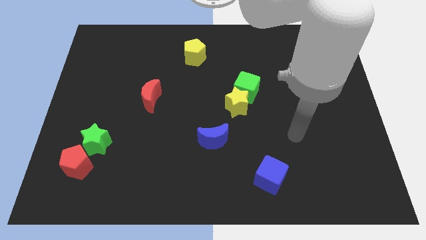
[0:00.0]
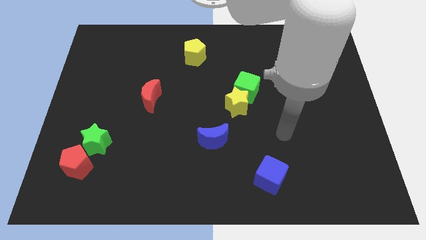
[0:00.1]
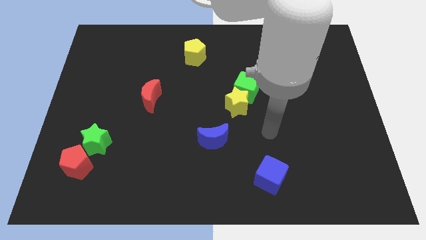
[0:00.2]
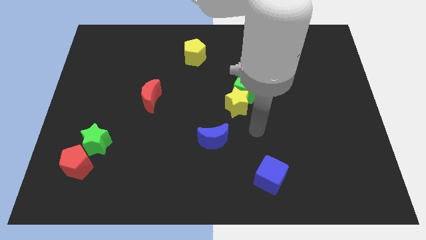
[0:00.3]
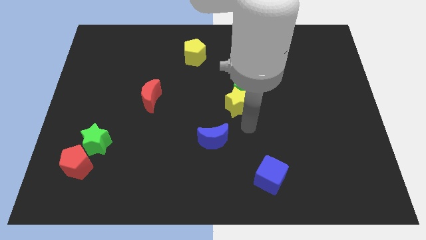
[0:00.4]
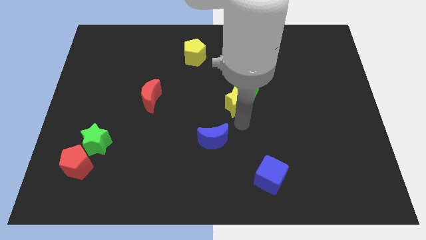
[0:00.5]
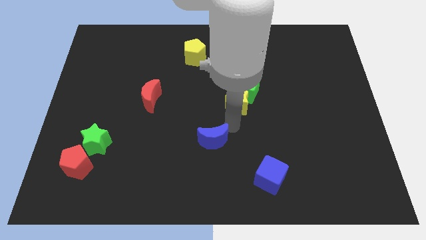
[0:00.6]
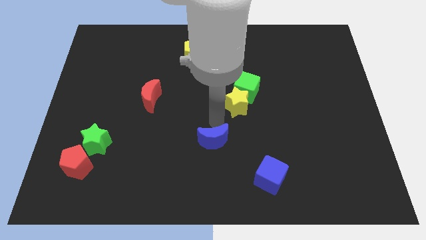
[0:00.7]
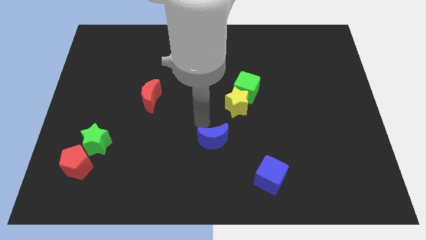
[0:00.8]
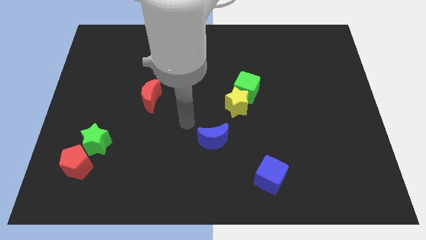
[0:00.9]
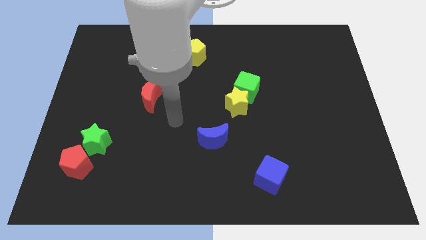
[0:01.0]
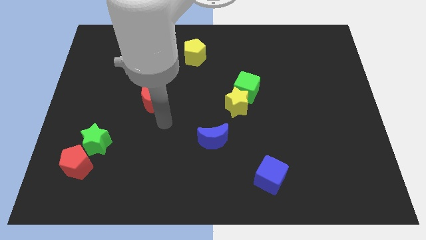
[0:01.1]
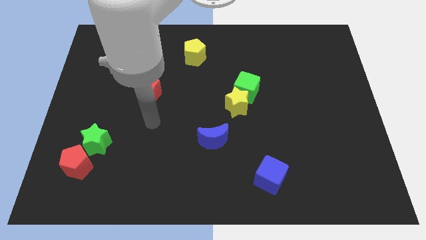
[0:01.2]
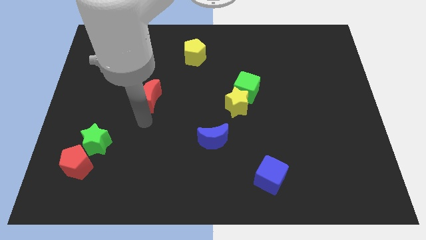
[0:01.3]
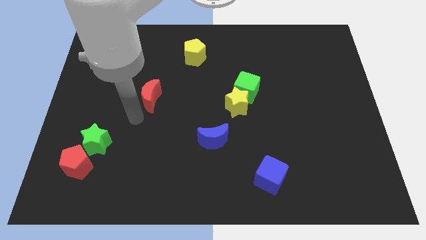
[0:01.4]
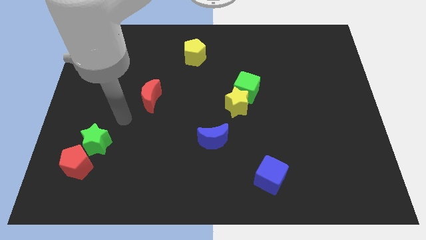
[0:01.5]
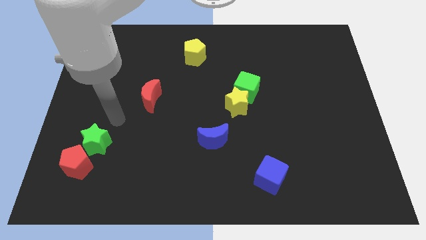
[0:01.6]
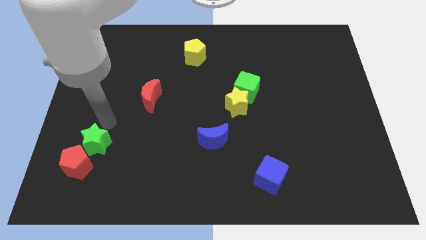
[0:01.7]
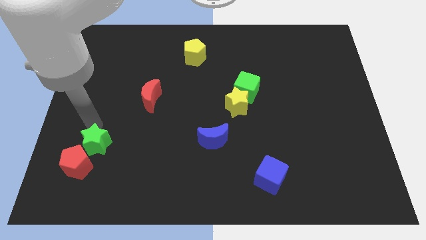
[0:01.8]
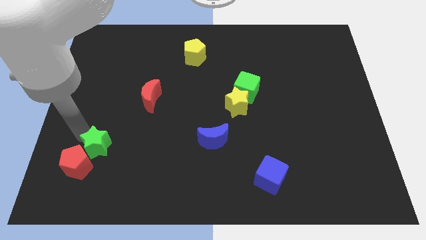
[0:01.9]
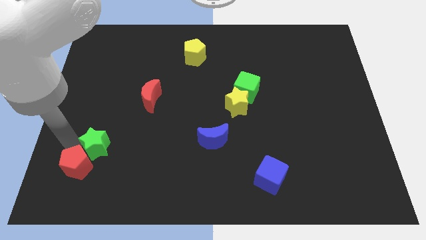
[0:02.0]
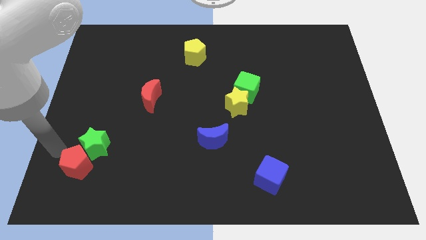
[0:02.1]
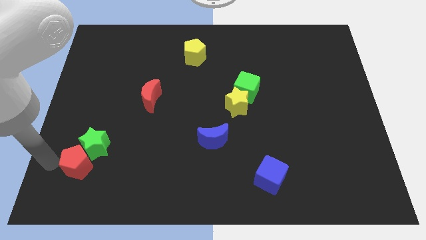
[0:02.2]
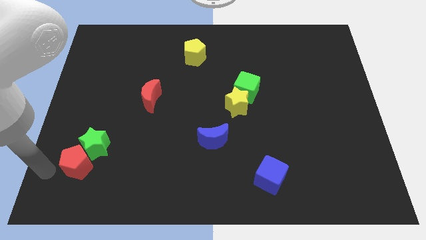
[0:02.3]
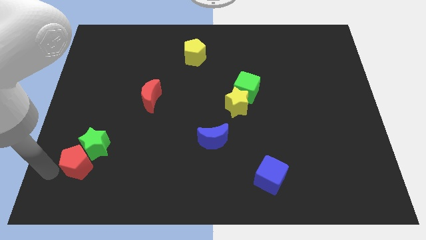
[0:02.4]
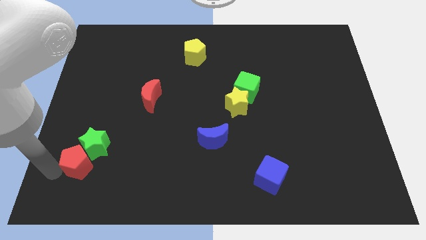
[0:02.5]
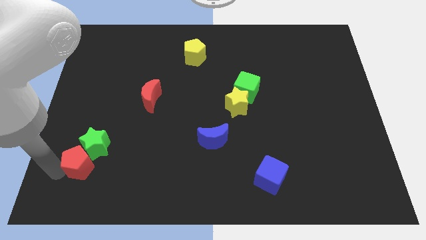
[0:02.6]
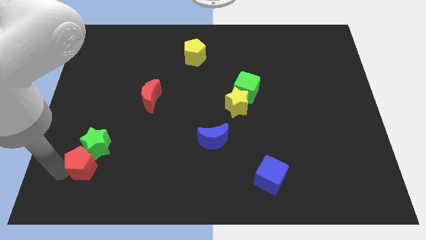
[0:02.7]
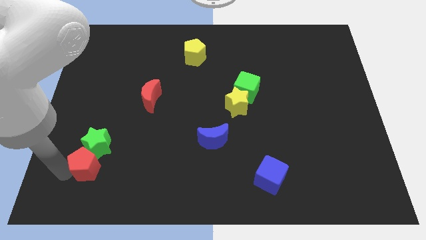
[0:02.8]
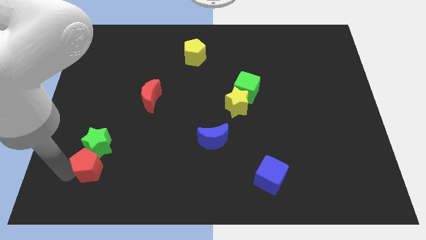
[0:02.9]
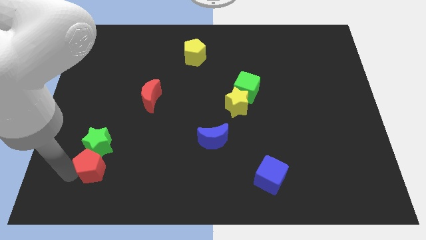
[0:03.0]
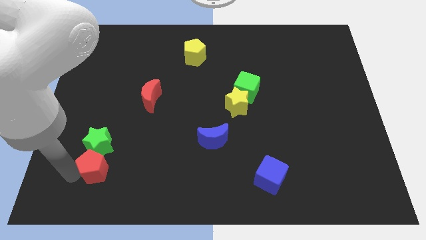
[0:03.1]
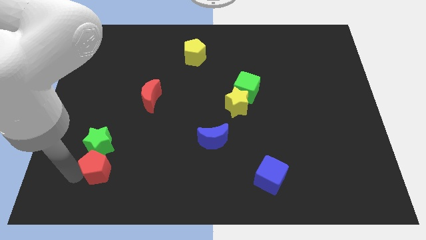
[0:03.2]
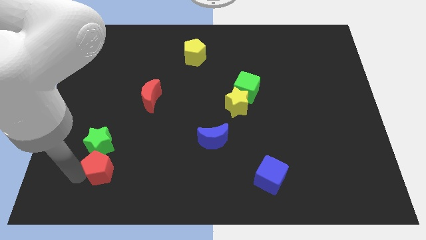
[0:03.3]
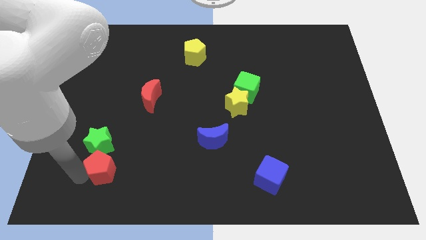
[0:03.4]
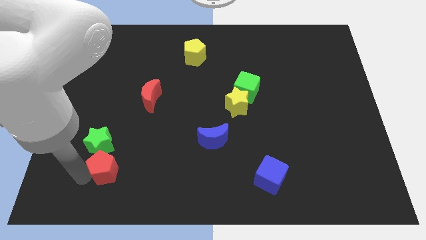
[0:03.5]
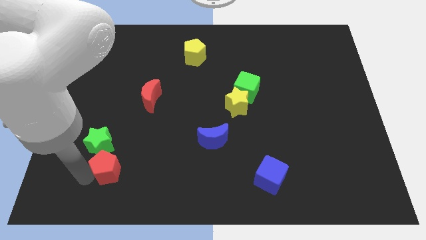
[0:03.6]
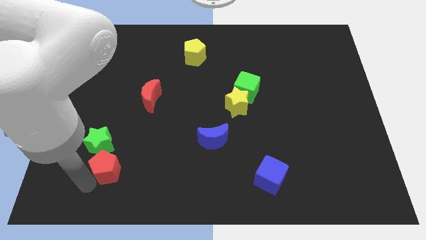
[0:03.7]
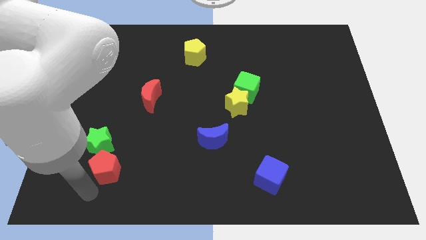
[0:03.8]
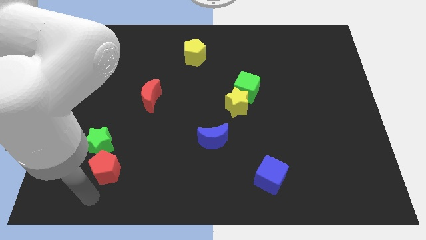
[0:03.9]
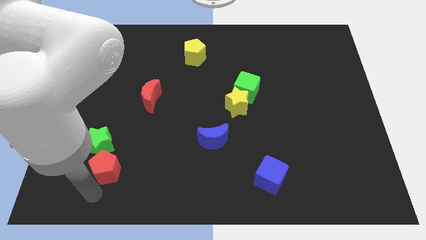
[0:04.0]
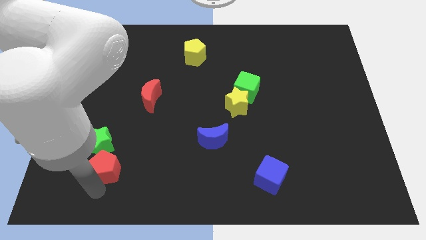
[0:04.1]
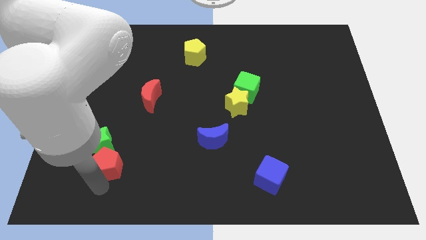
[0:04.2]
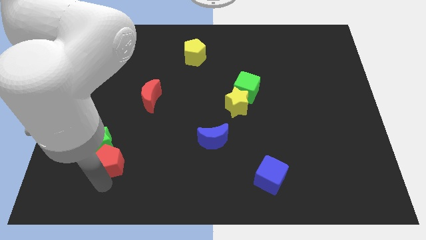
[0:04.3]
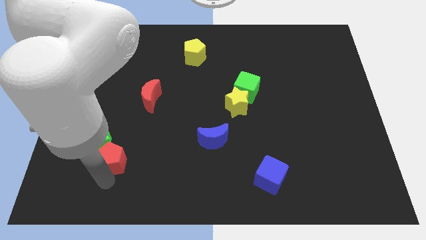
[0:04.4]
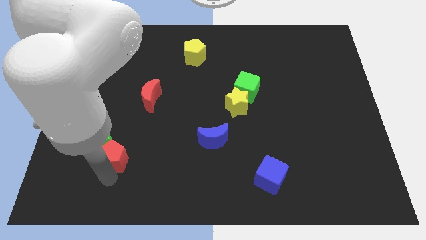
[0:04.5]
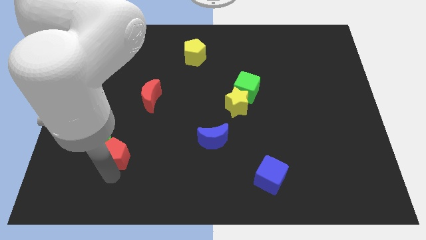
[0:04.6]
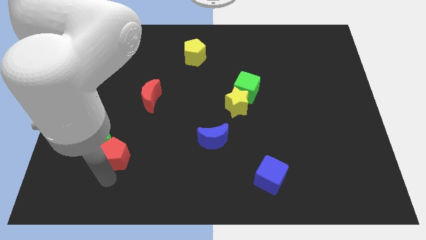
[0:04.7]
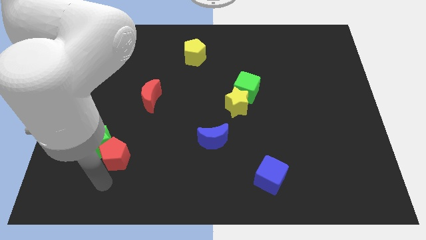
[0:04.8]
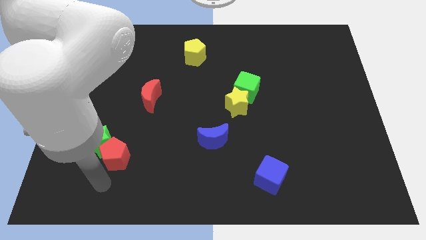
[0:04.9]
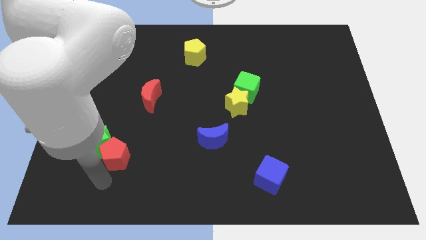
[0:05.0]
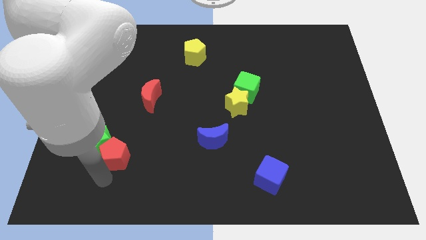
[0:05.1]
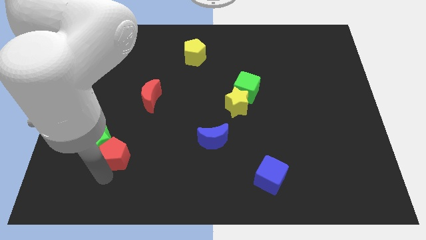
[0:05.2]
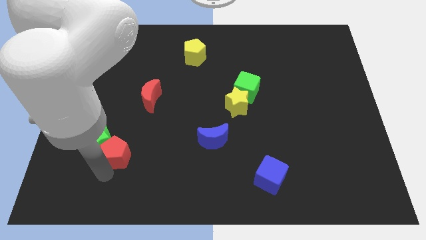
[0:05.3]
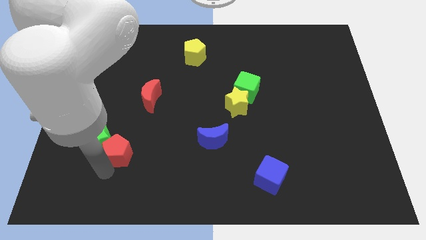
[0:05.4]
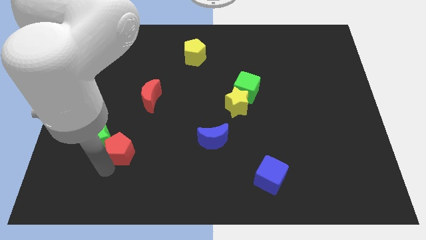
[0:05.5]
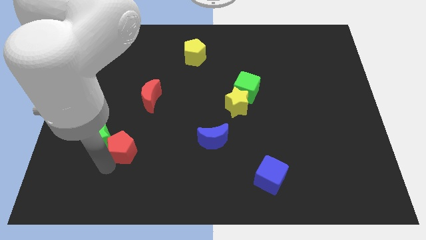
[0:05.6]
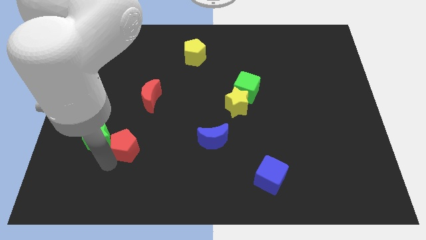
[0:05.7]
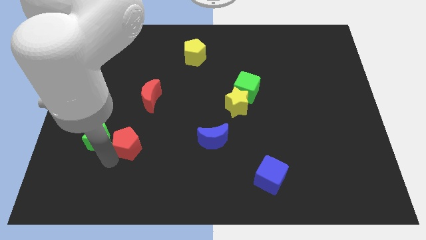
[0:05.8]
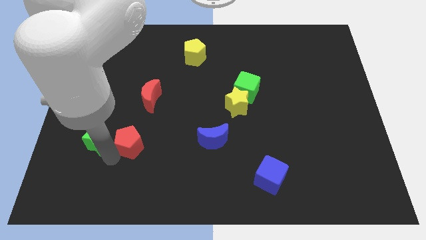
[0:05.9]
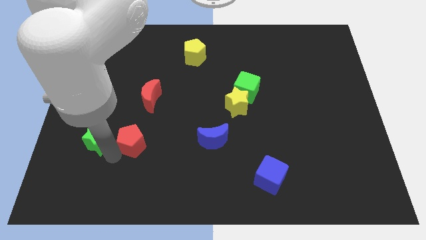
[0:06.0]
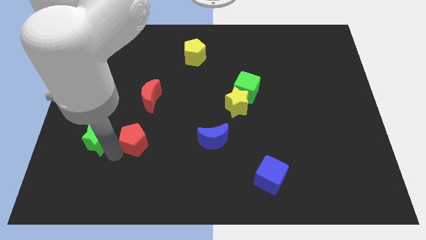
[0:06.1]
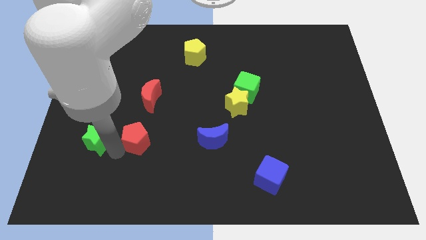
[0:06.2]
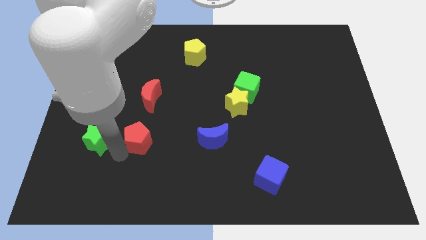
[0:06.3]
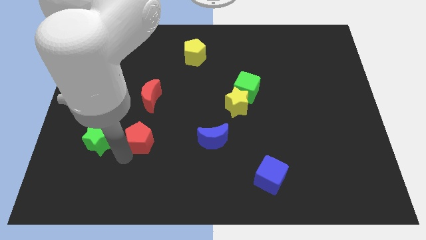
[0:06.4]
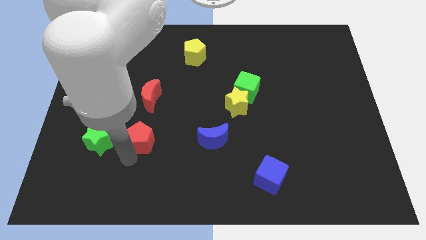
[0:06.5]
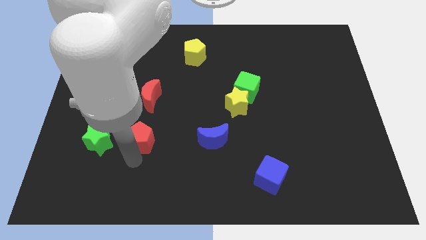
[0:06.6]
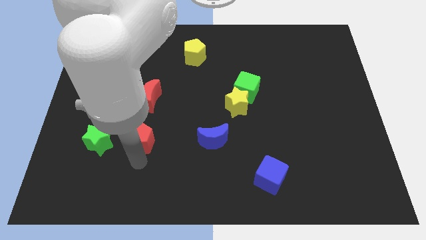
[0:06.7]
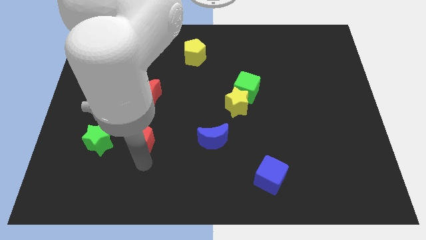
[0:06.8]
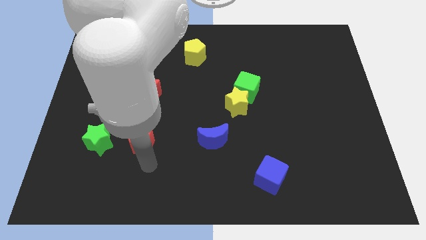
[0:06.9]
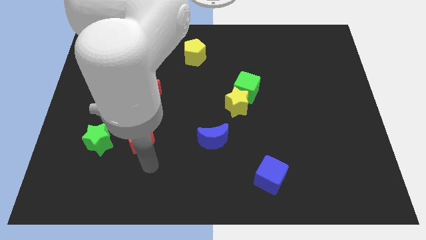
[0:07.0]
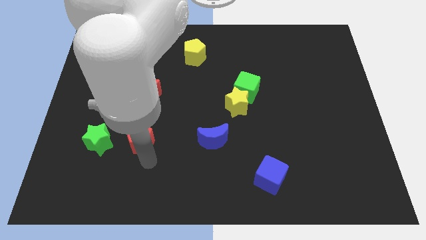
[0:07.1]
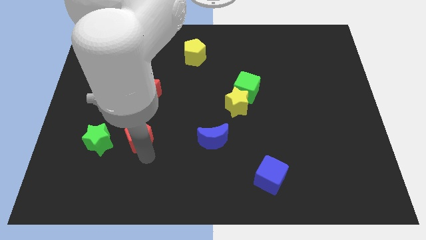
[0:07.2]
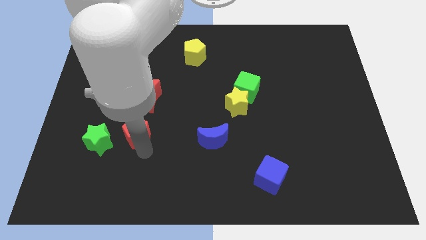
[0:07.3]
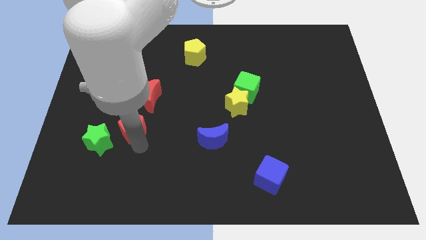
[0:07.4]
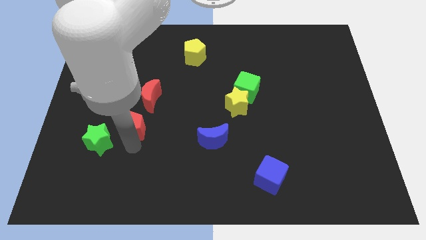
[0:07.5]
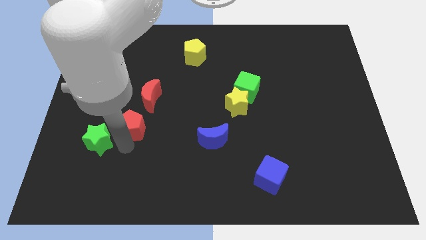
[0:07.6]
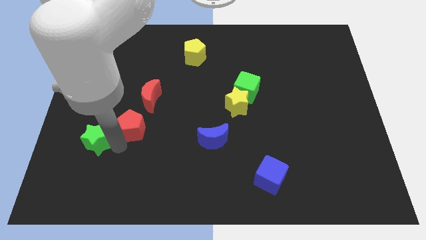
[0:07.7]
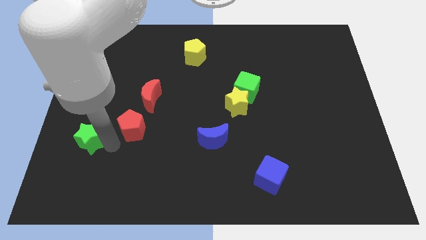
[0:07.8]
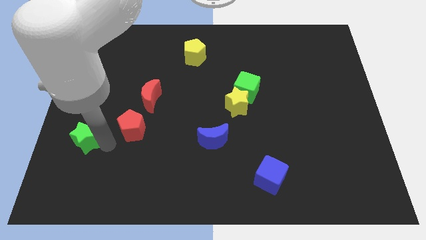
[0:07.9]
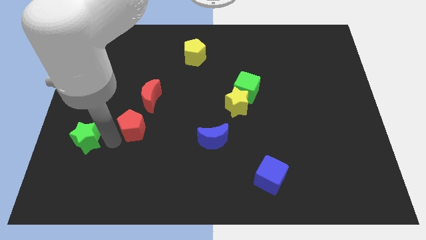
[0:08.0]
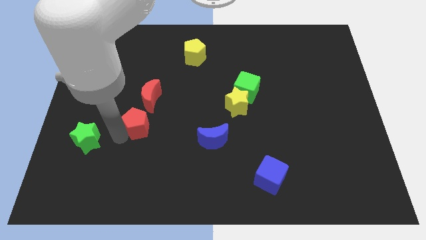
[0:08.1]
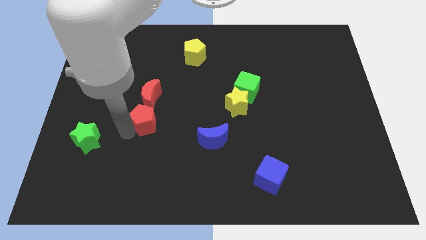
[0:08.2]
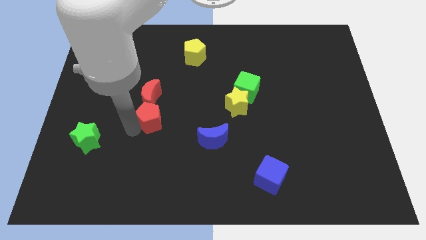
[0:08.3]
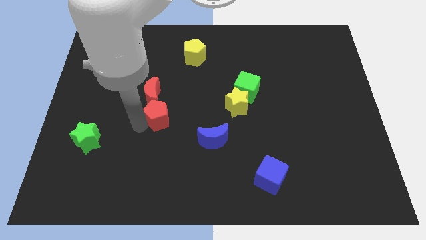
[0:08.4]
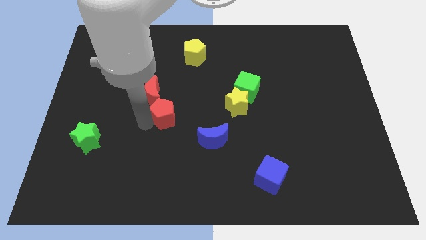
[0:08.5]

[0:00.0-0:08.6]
push the red pentagon diagonally up and to the right
